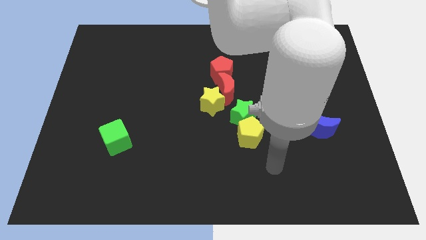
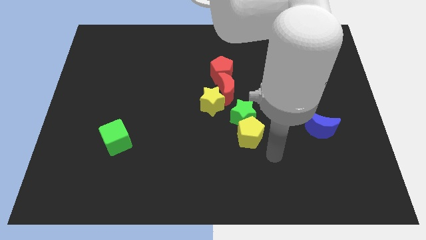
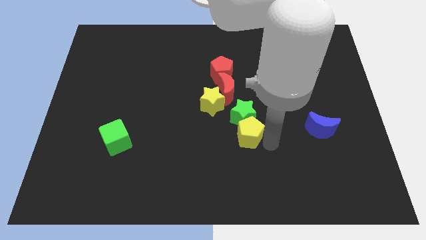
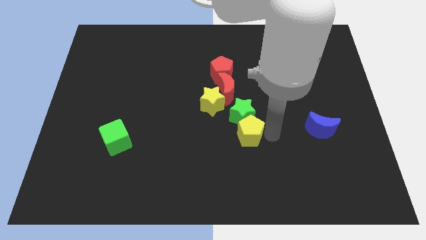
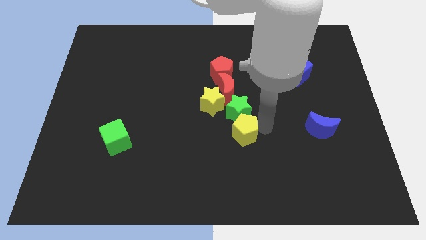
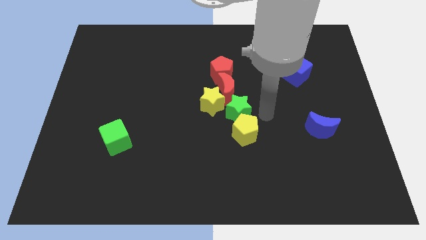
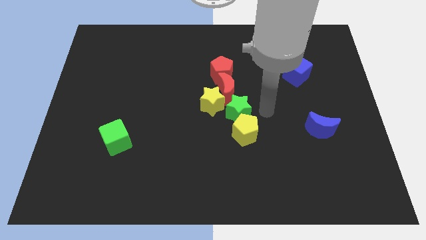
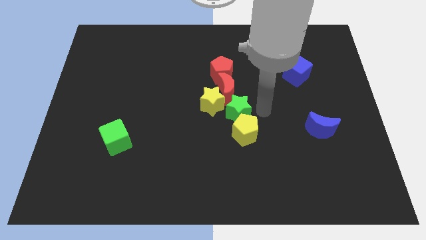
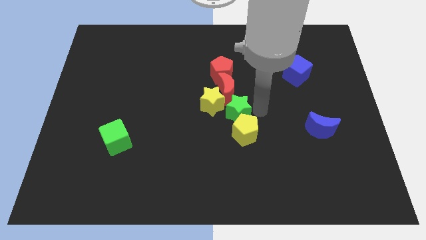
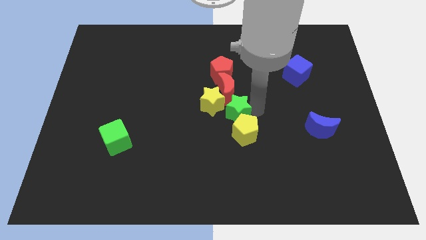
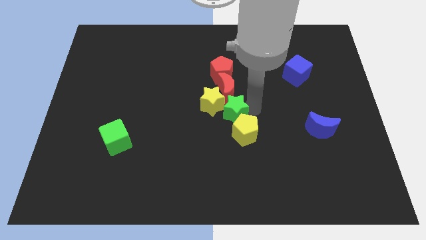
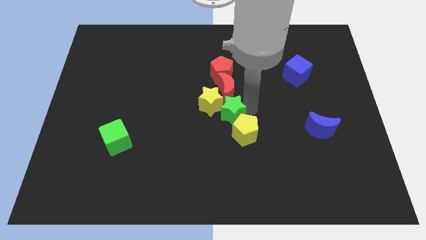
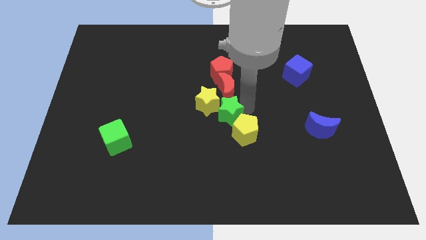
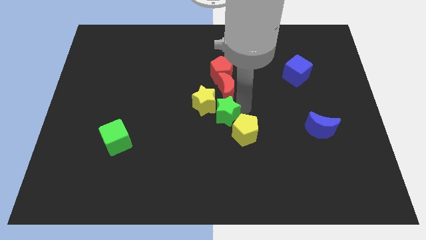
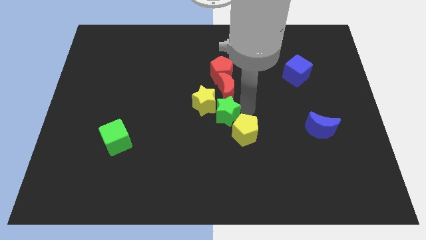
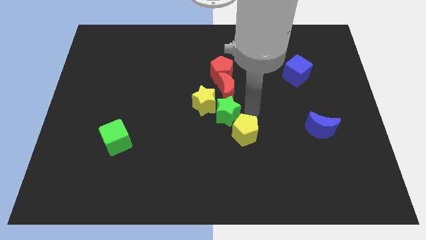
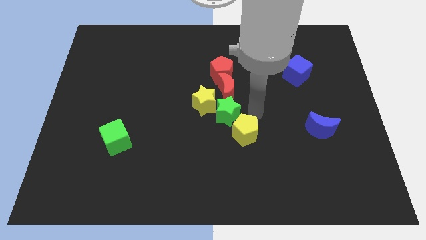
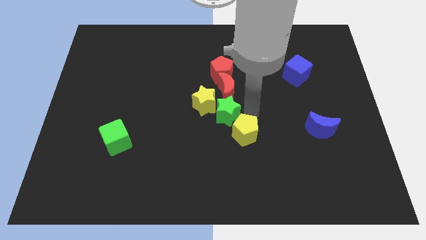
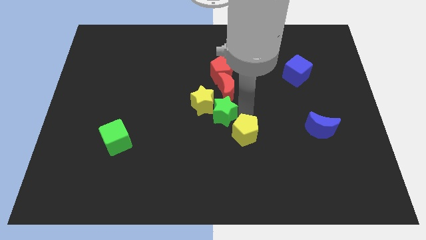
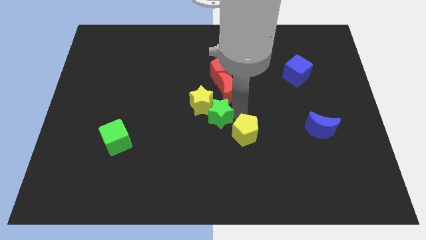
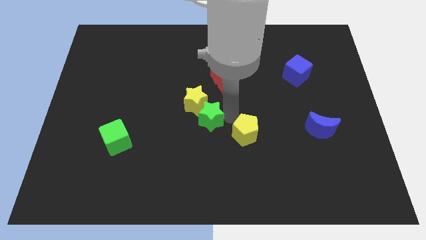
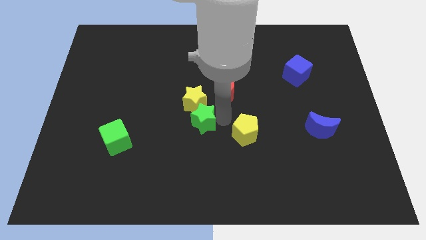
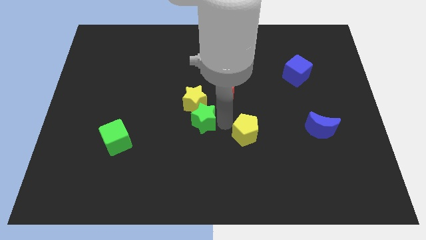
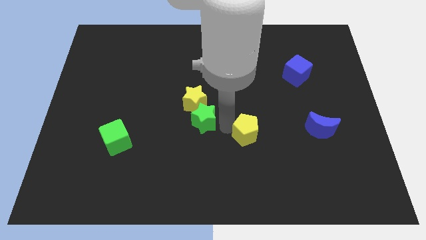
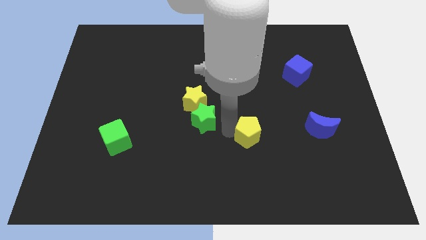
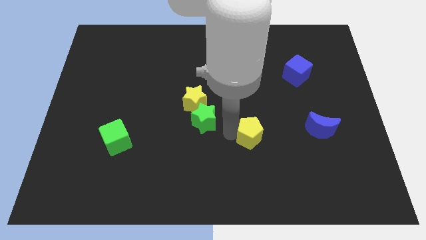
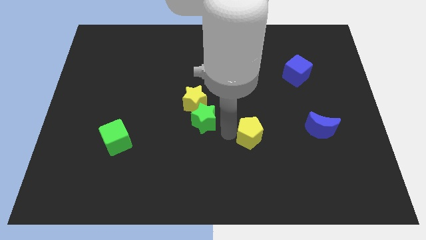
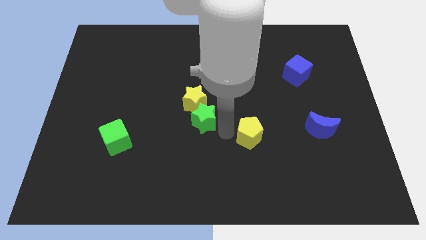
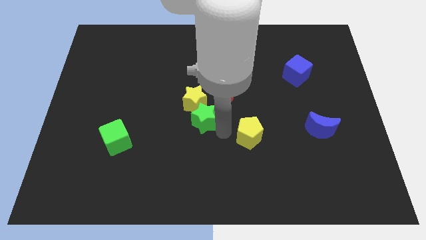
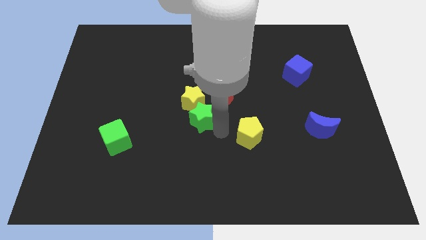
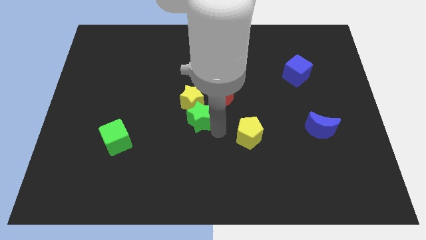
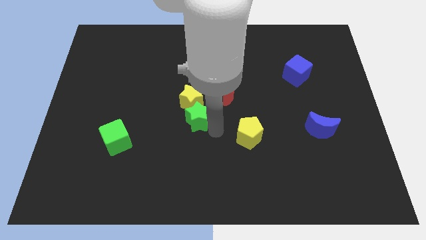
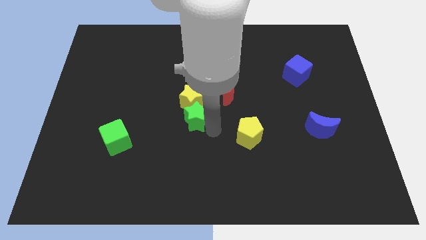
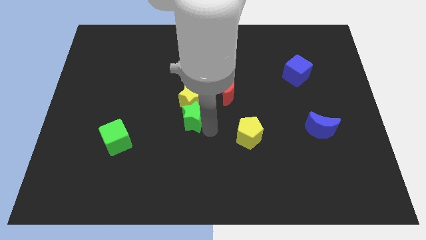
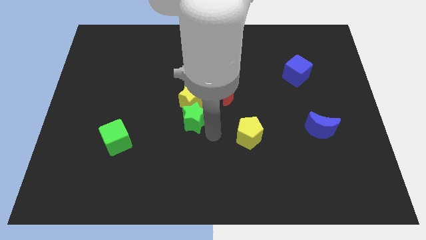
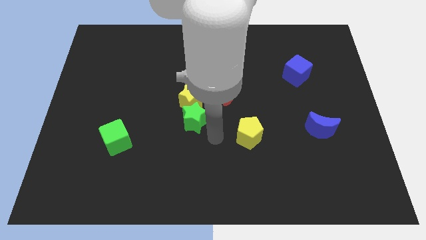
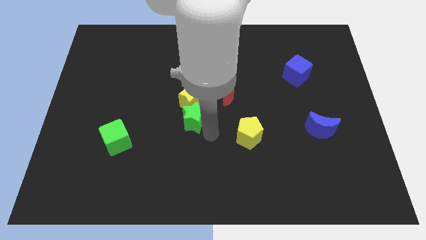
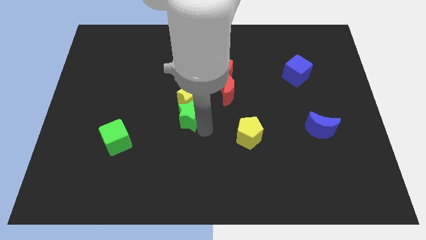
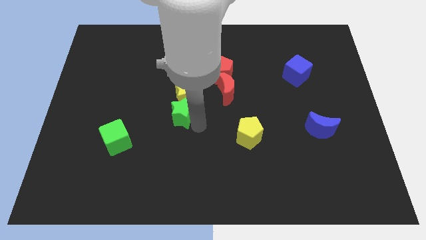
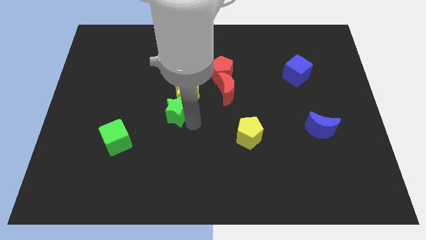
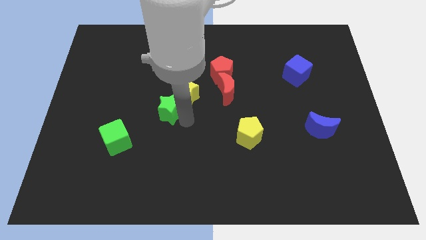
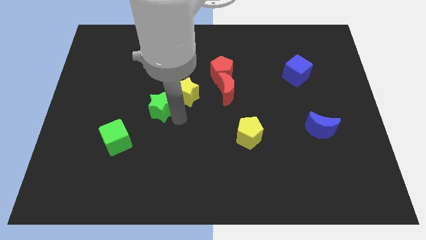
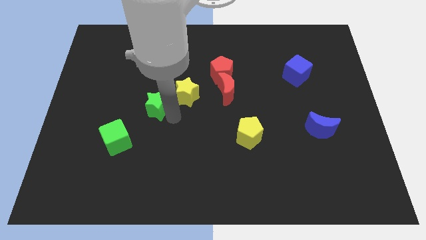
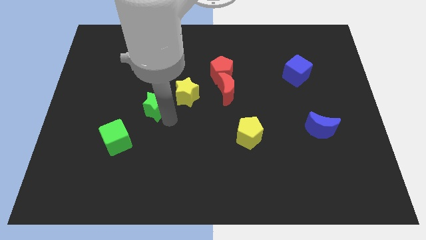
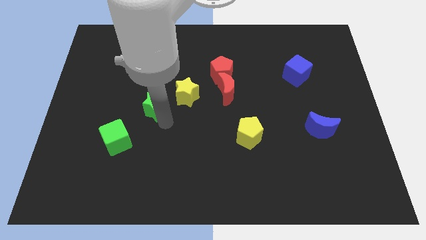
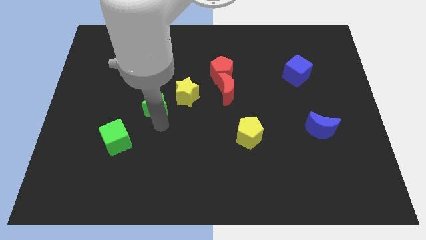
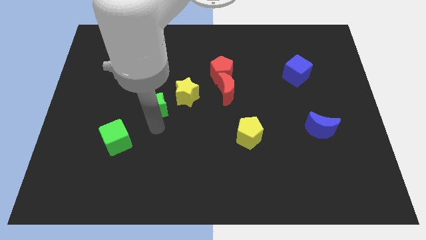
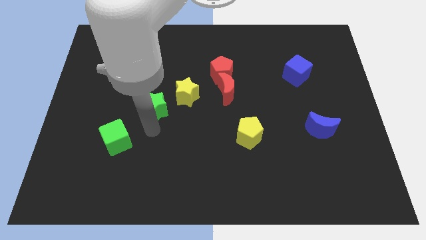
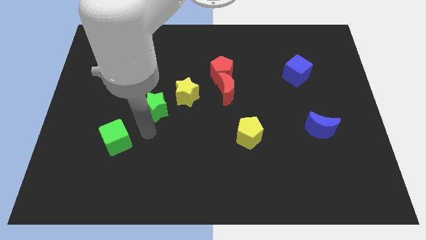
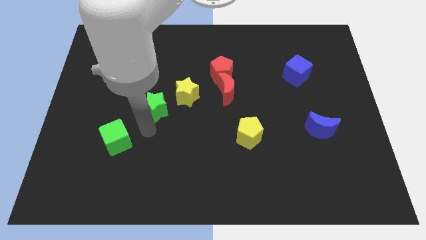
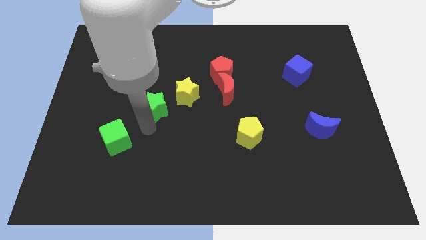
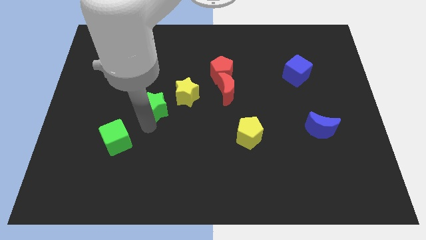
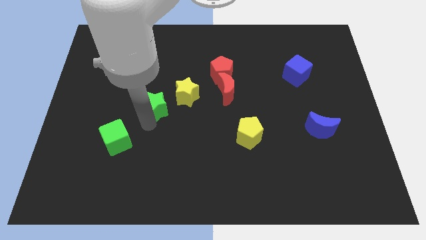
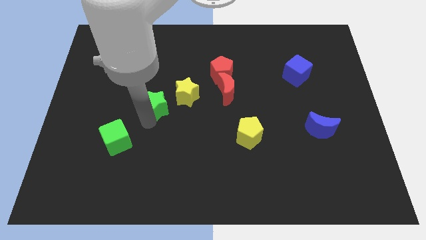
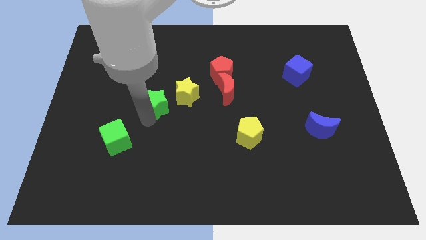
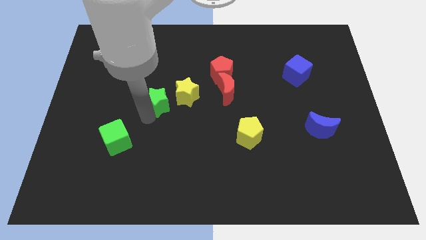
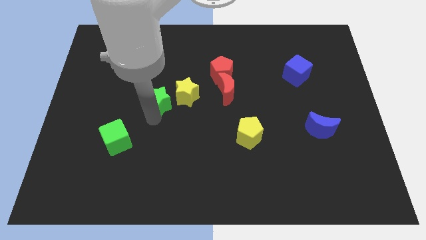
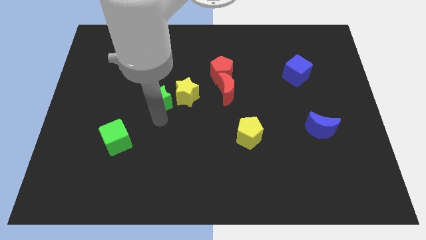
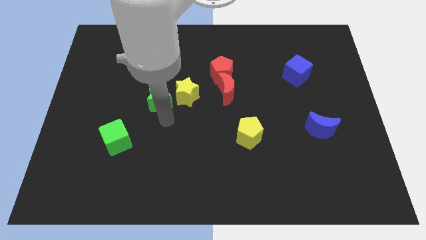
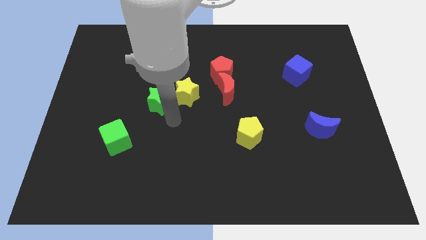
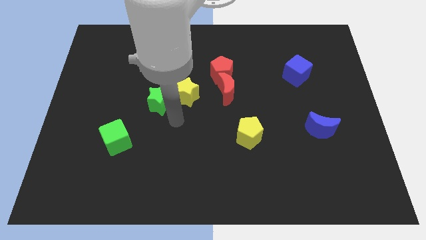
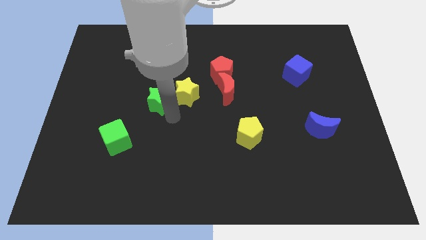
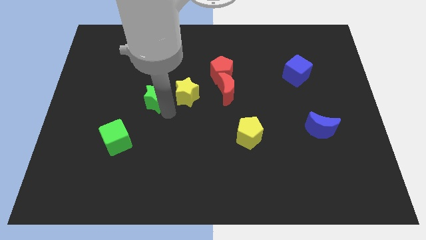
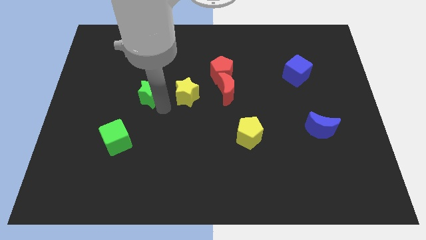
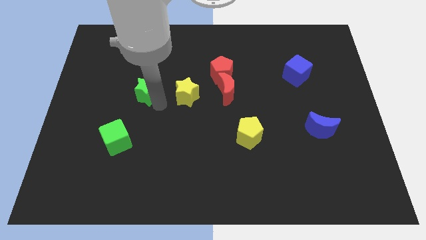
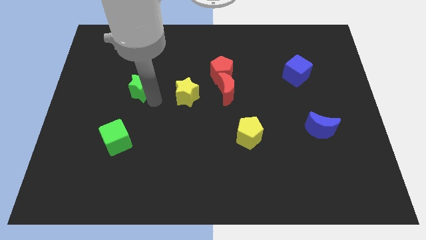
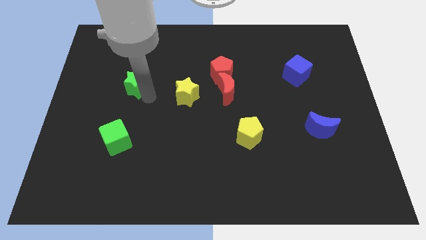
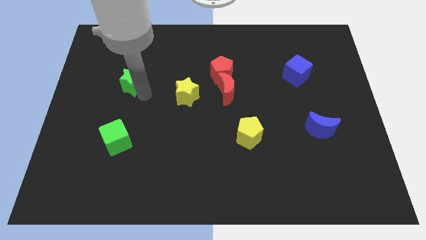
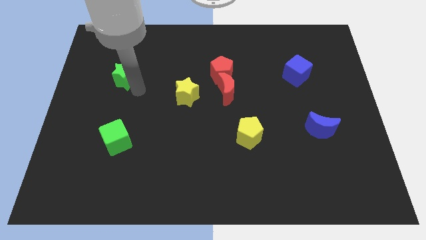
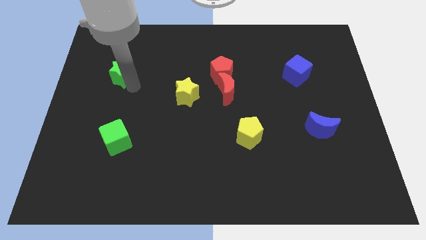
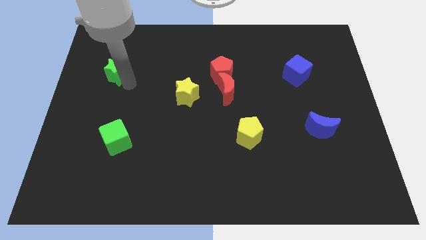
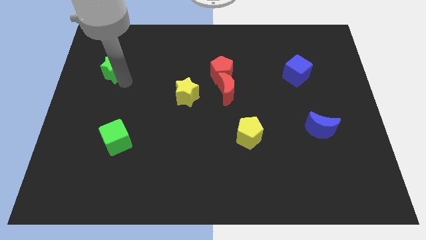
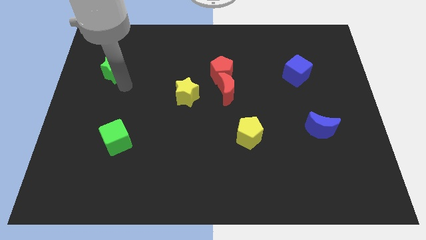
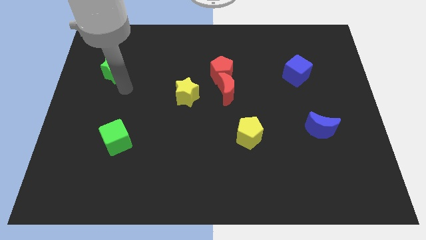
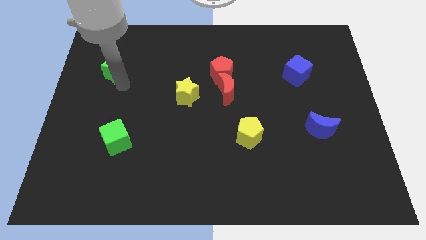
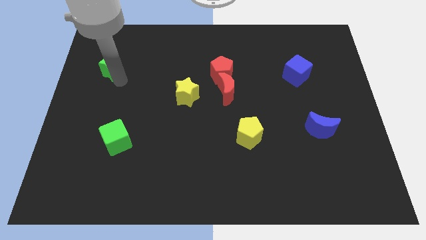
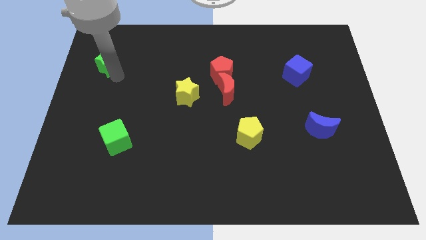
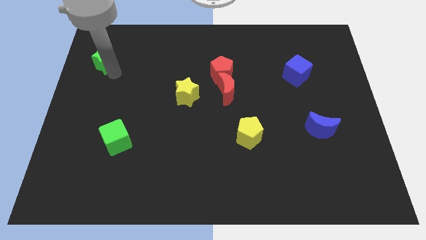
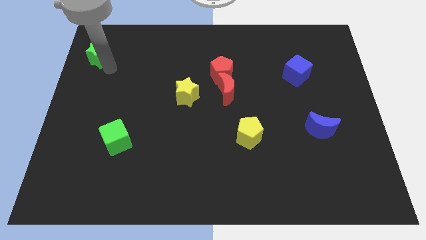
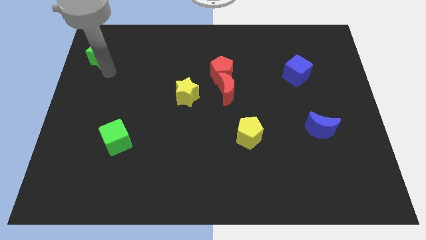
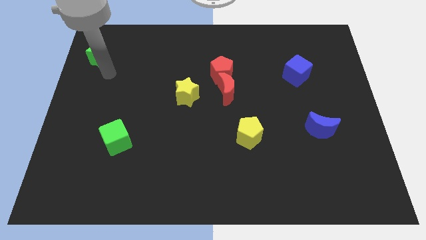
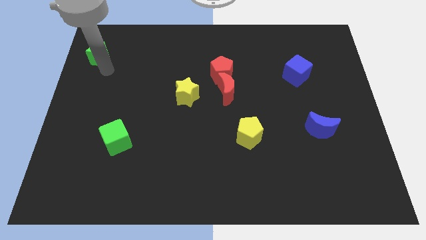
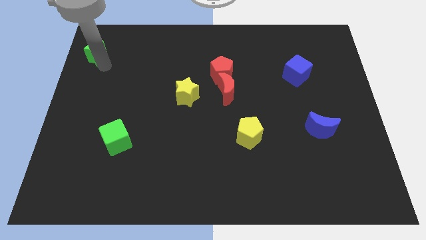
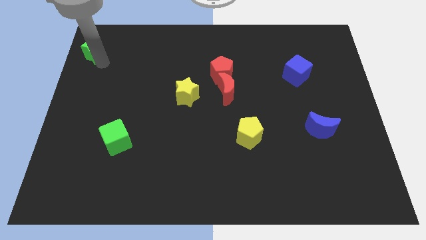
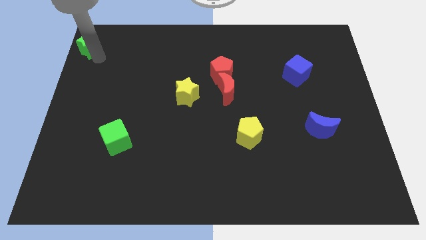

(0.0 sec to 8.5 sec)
push the green star to the upper left corner
